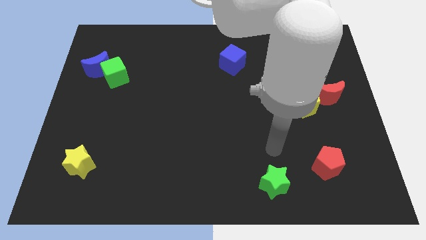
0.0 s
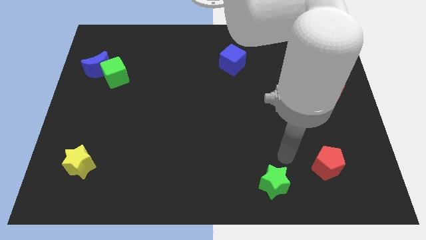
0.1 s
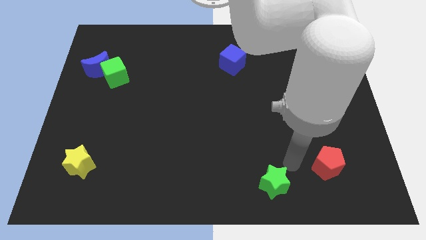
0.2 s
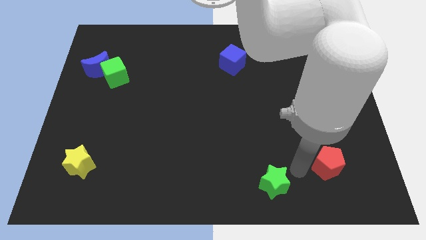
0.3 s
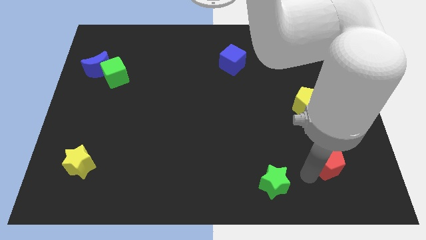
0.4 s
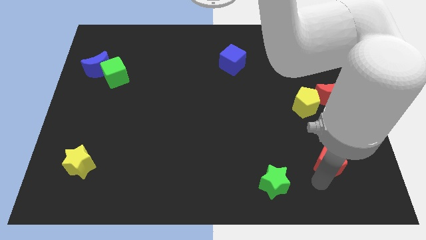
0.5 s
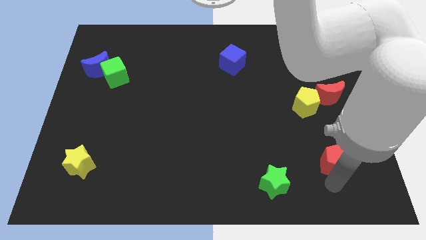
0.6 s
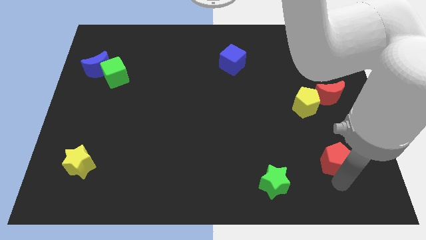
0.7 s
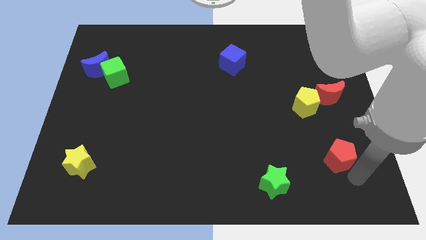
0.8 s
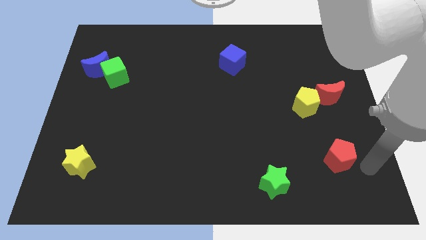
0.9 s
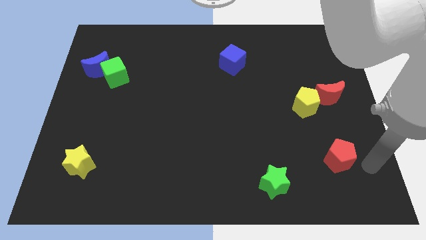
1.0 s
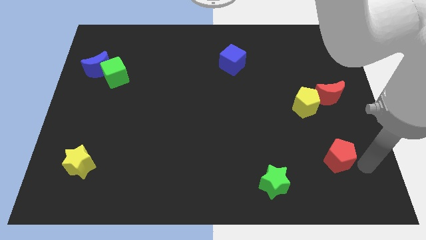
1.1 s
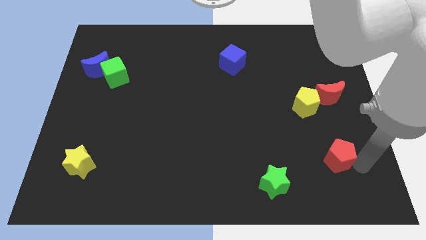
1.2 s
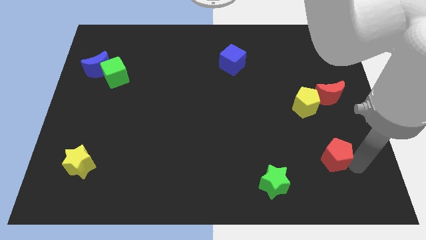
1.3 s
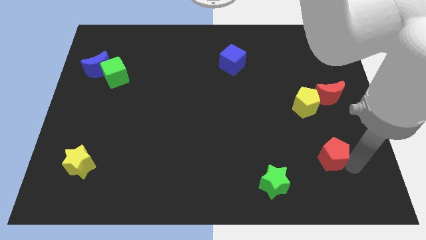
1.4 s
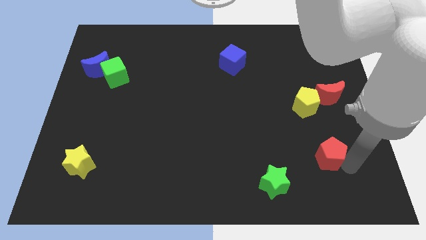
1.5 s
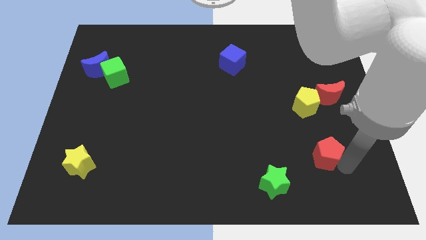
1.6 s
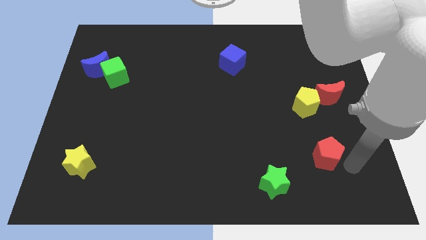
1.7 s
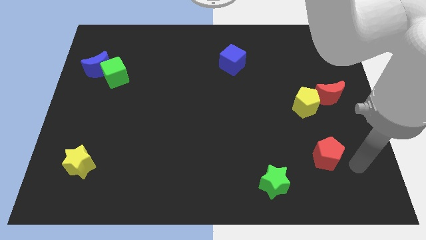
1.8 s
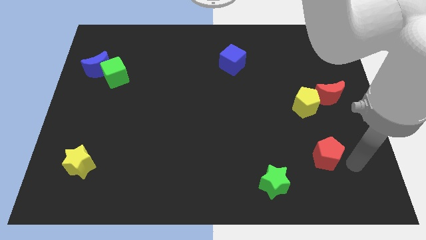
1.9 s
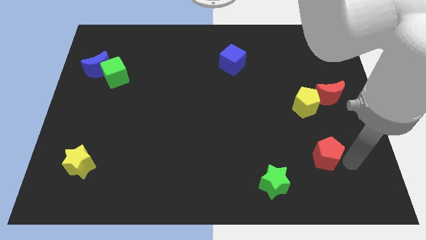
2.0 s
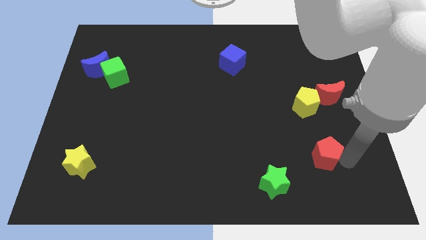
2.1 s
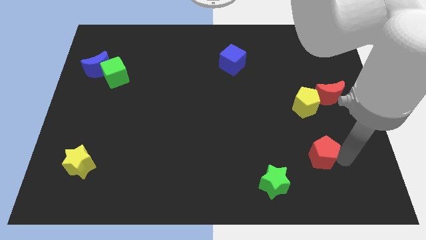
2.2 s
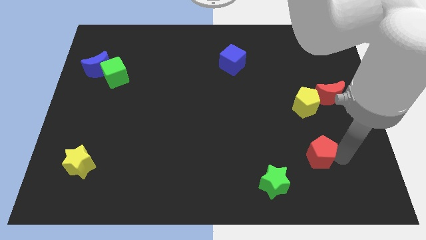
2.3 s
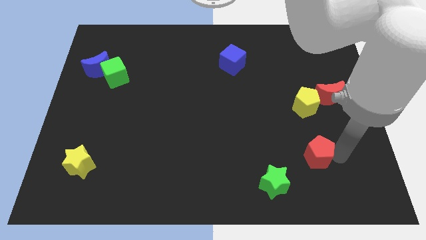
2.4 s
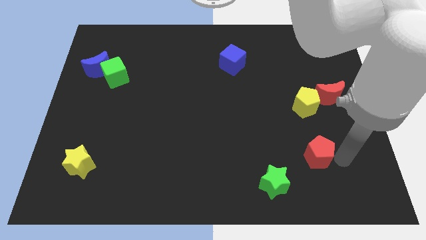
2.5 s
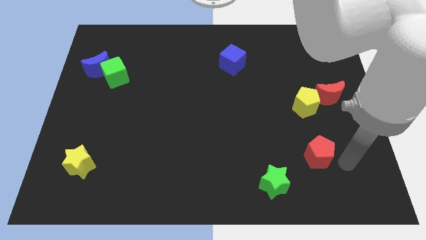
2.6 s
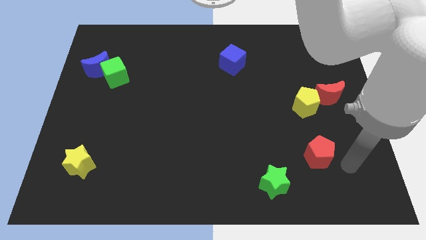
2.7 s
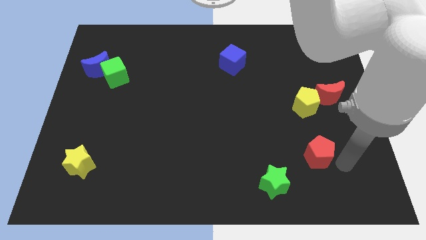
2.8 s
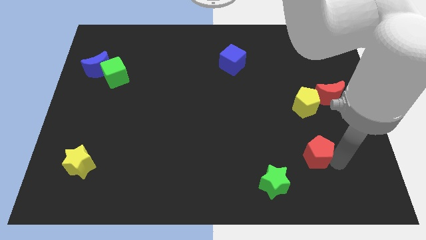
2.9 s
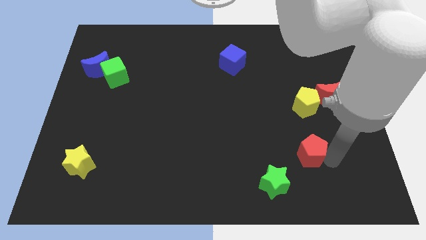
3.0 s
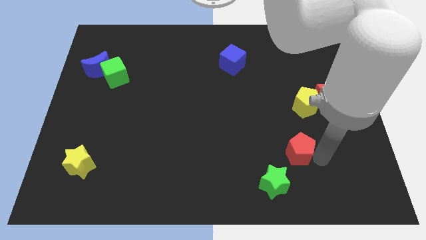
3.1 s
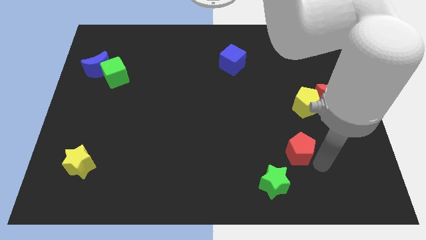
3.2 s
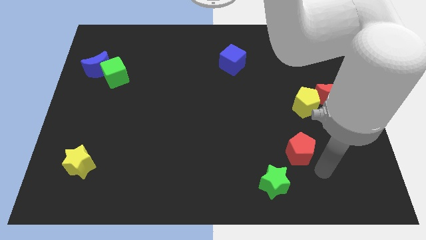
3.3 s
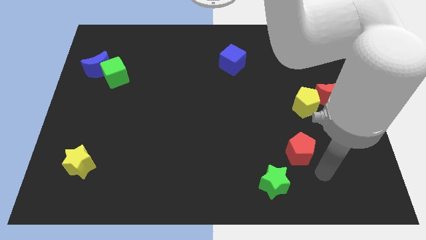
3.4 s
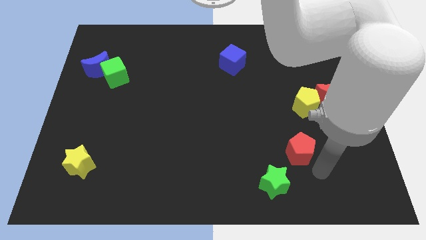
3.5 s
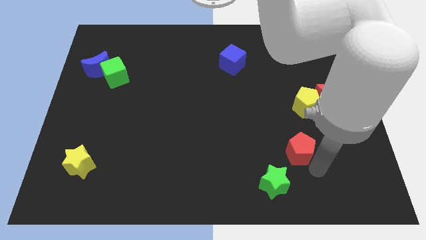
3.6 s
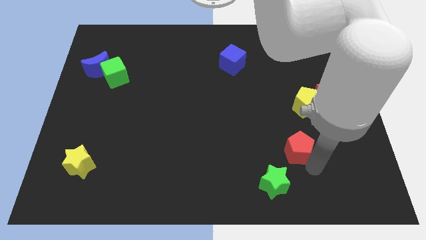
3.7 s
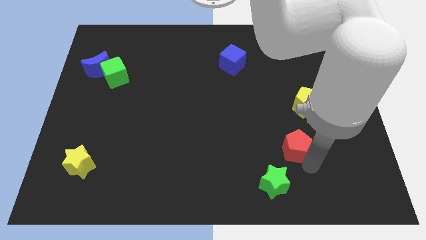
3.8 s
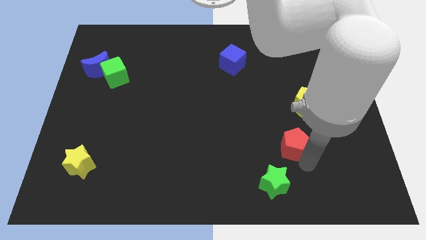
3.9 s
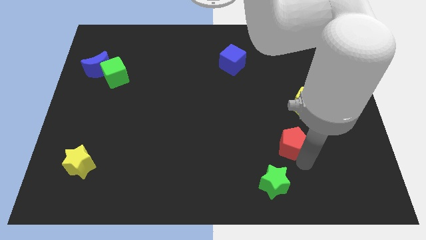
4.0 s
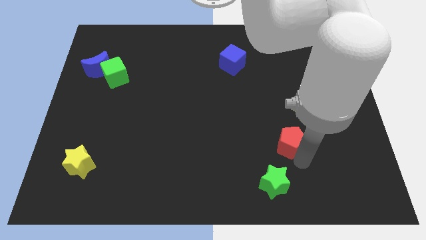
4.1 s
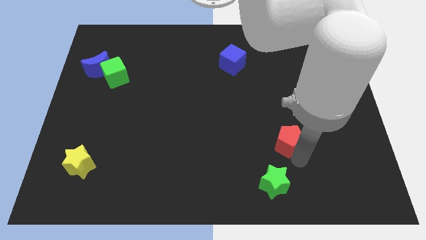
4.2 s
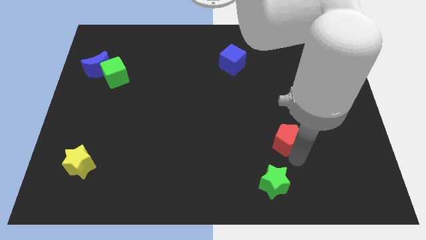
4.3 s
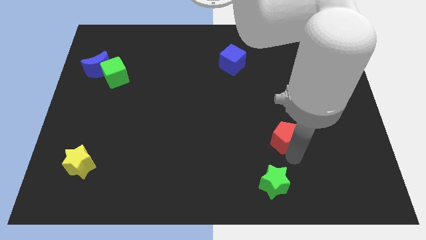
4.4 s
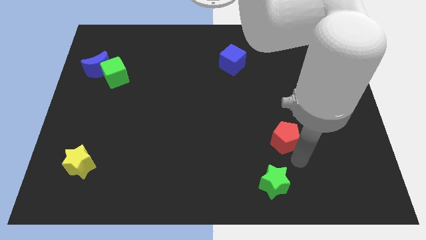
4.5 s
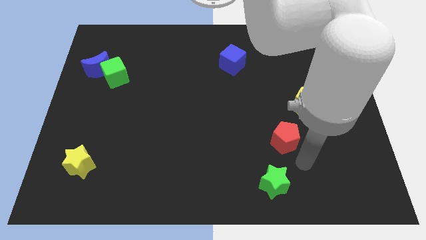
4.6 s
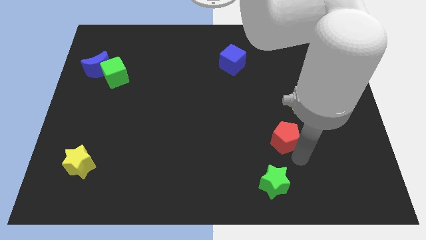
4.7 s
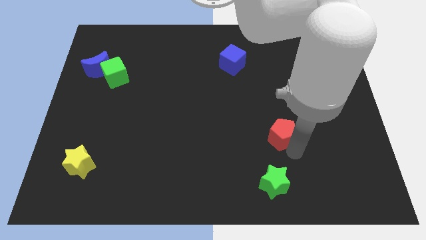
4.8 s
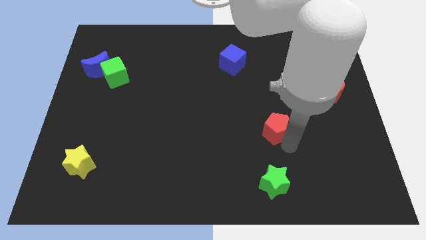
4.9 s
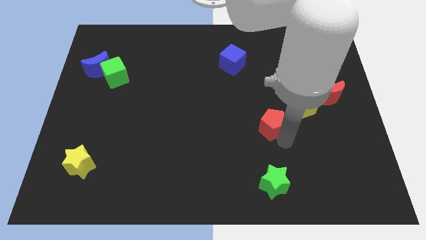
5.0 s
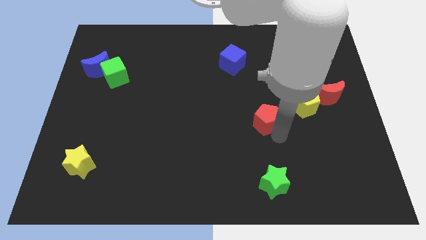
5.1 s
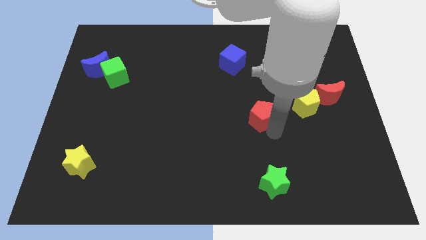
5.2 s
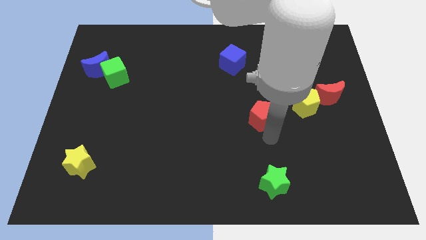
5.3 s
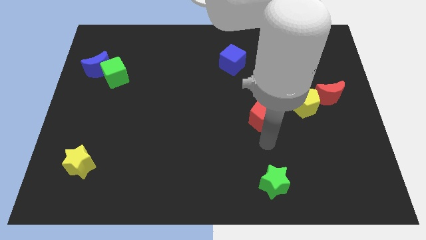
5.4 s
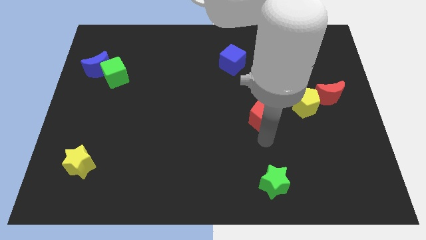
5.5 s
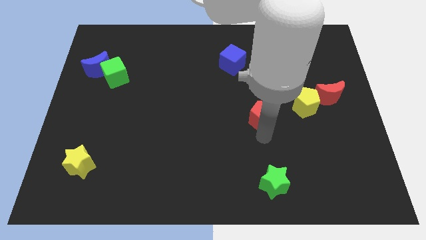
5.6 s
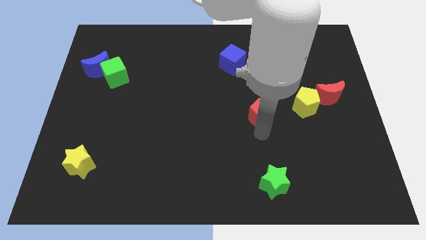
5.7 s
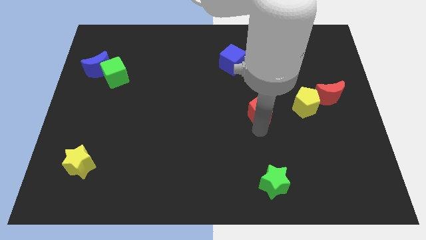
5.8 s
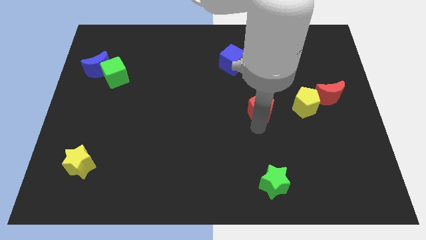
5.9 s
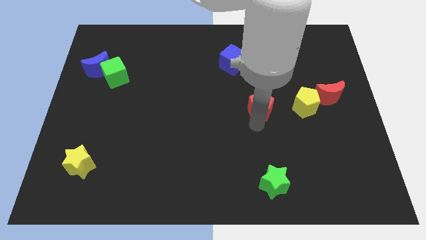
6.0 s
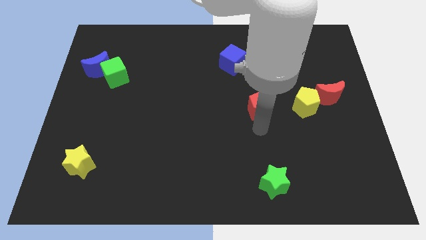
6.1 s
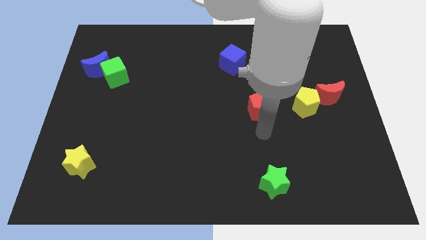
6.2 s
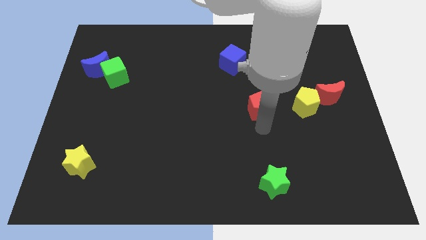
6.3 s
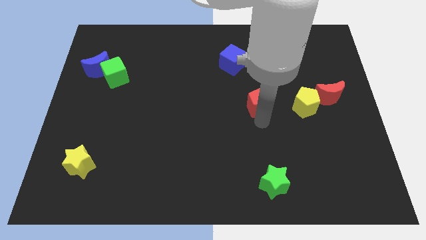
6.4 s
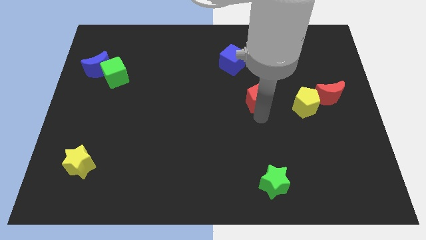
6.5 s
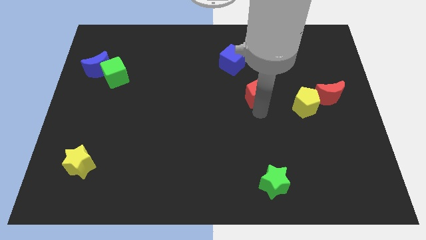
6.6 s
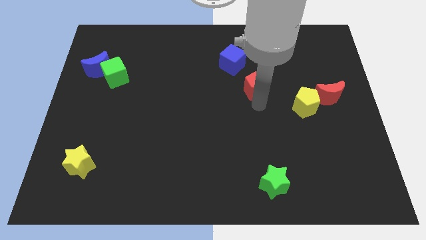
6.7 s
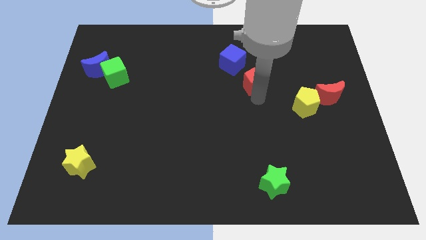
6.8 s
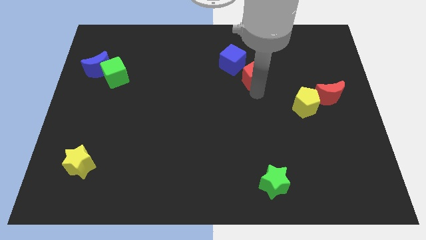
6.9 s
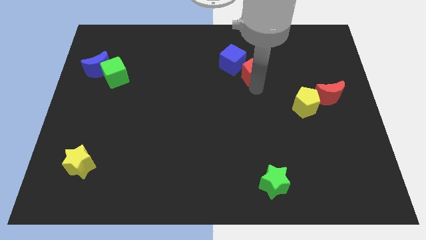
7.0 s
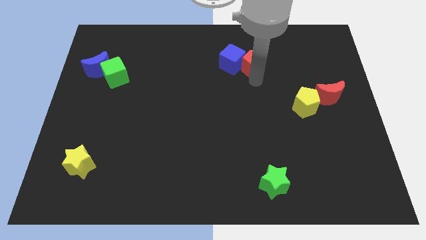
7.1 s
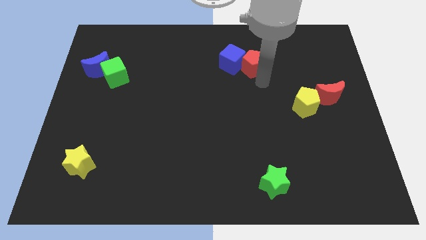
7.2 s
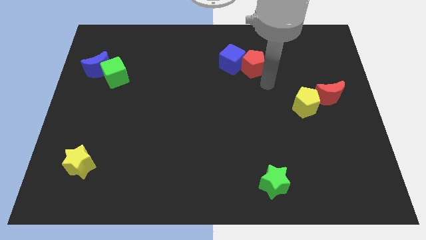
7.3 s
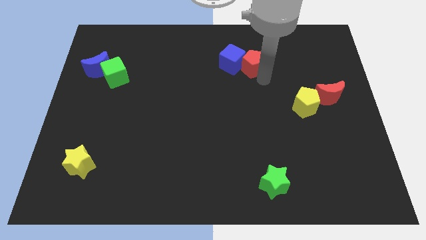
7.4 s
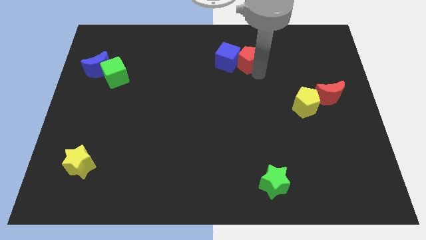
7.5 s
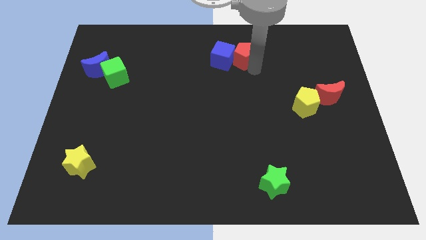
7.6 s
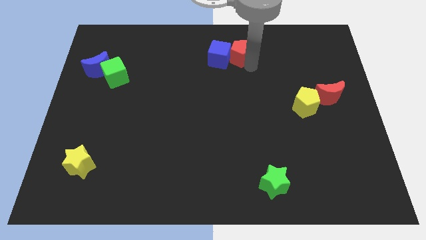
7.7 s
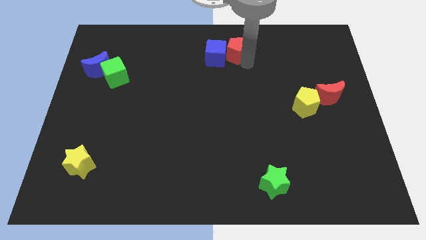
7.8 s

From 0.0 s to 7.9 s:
push the red pentagon to the top side
